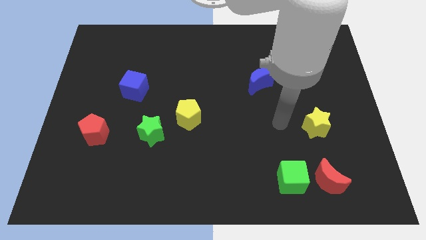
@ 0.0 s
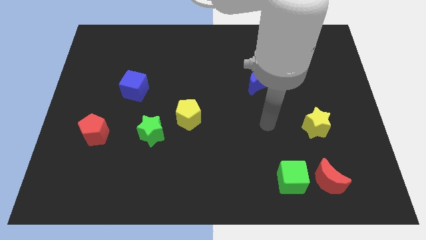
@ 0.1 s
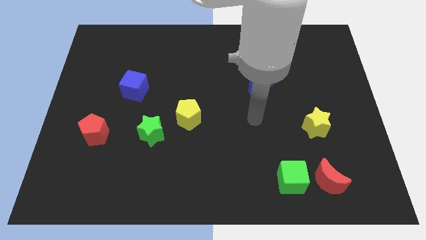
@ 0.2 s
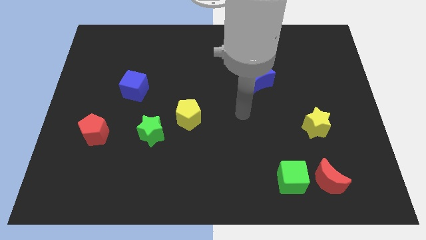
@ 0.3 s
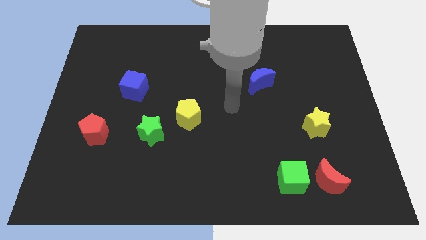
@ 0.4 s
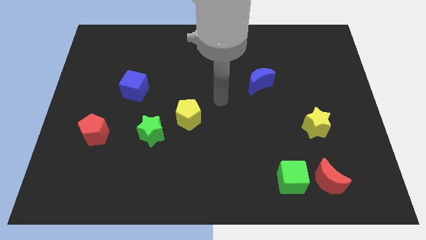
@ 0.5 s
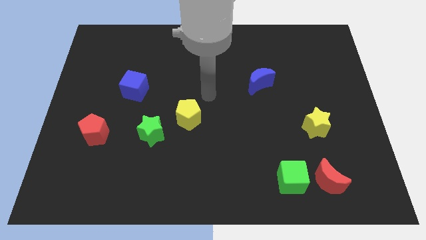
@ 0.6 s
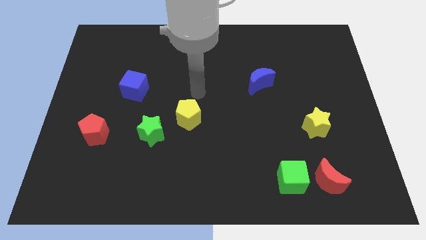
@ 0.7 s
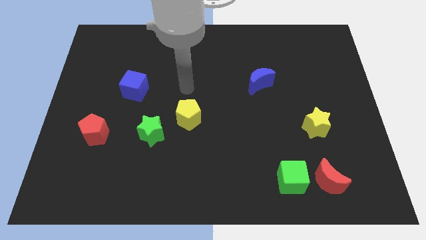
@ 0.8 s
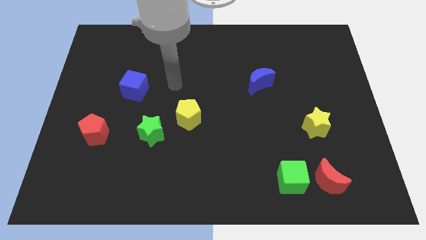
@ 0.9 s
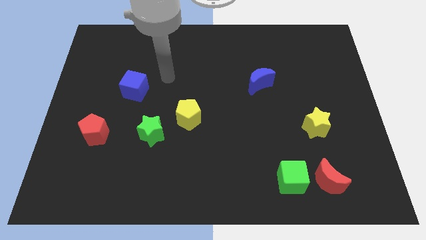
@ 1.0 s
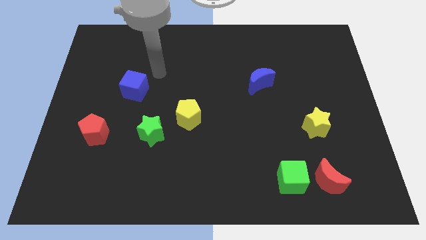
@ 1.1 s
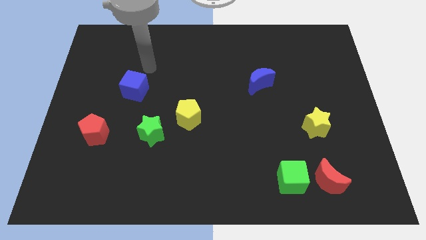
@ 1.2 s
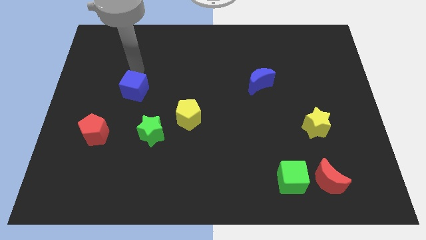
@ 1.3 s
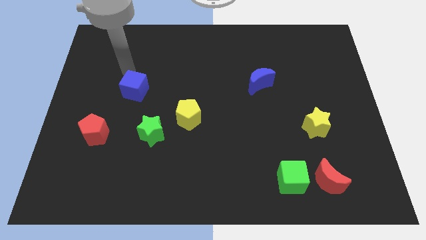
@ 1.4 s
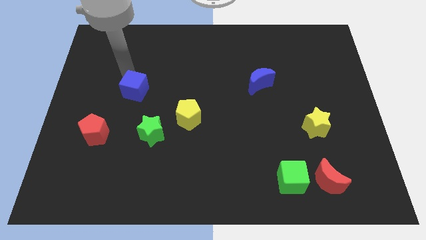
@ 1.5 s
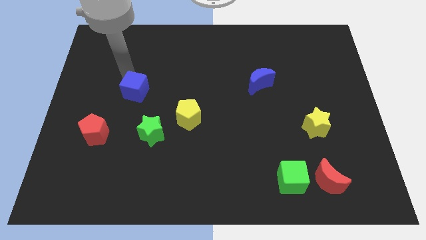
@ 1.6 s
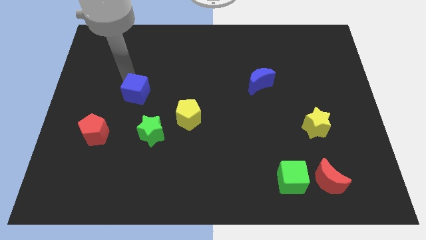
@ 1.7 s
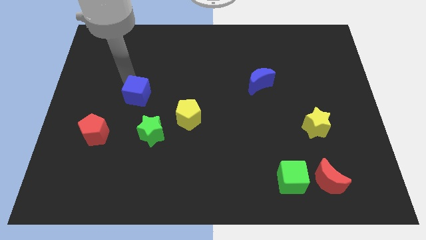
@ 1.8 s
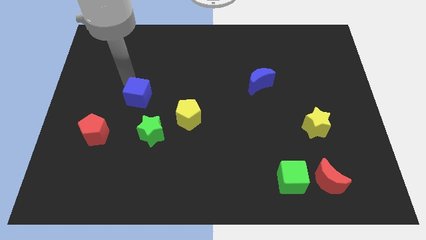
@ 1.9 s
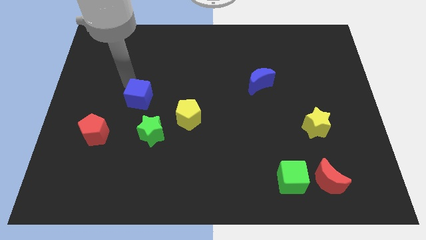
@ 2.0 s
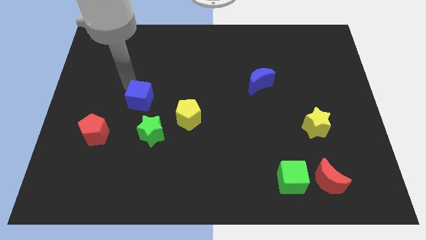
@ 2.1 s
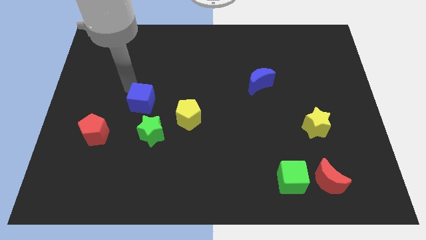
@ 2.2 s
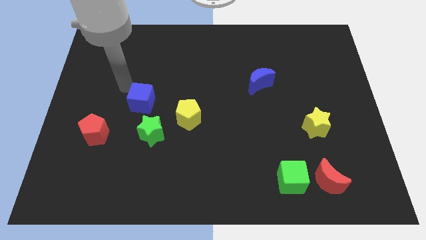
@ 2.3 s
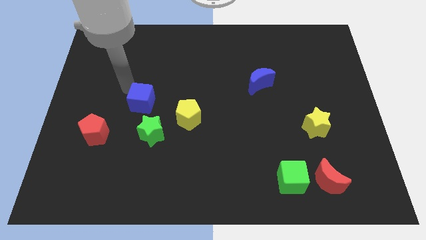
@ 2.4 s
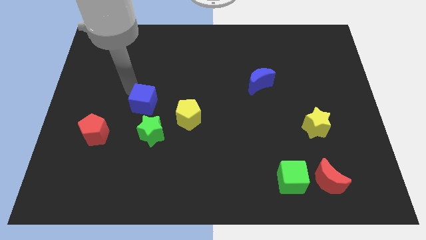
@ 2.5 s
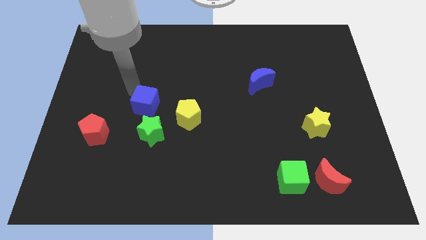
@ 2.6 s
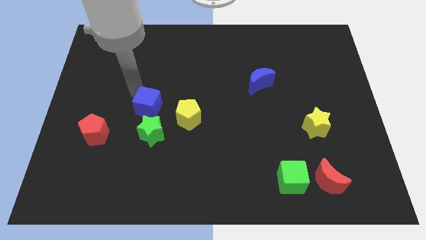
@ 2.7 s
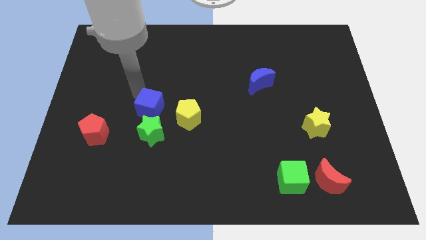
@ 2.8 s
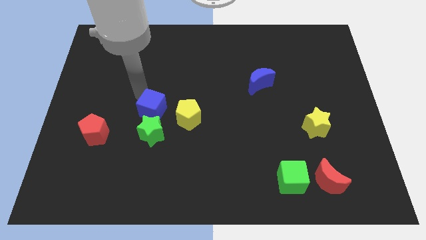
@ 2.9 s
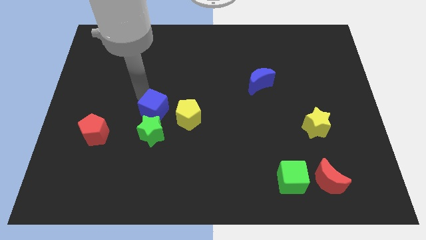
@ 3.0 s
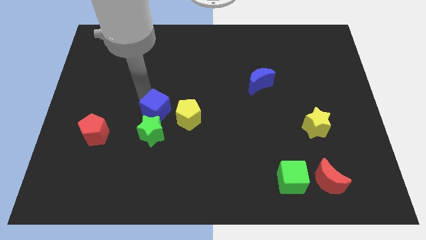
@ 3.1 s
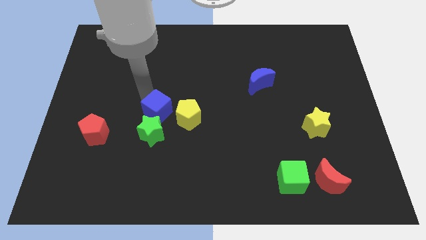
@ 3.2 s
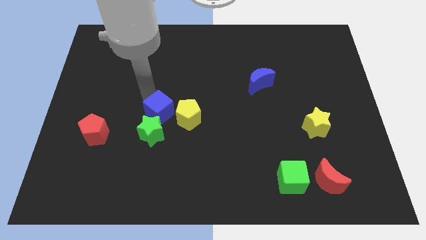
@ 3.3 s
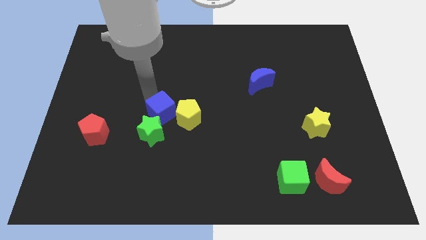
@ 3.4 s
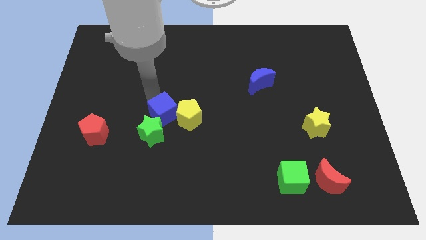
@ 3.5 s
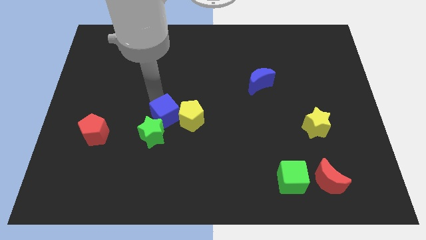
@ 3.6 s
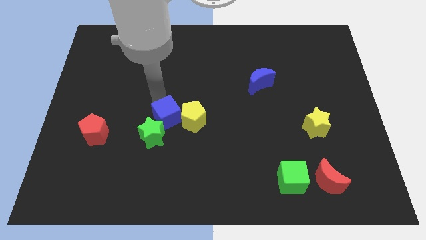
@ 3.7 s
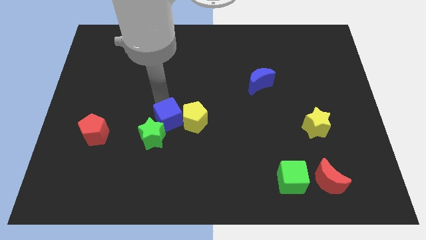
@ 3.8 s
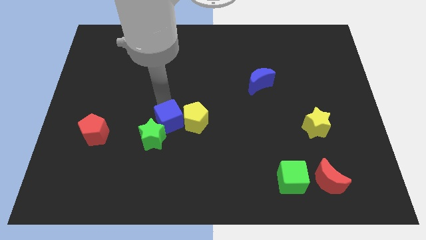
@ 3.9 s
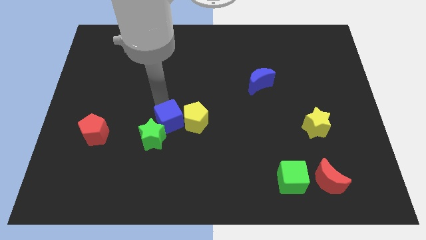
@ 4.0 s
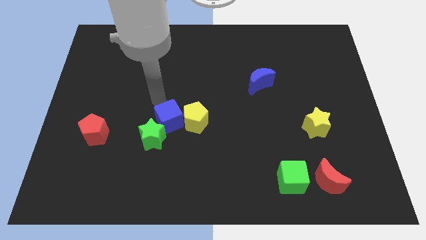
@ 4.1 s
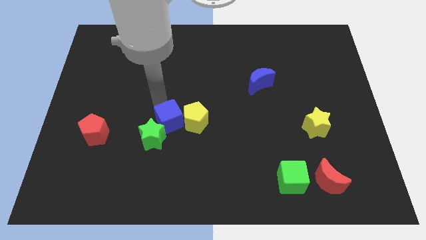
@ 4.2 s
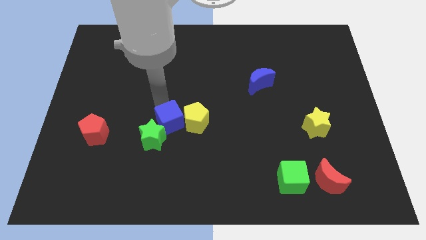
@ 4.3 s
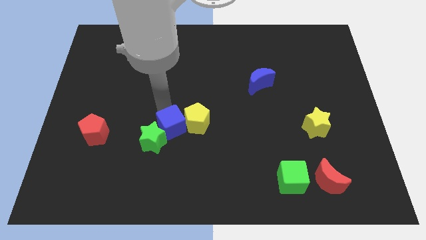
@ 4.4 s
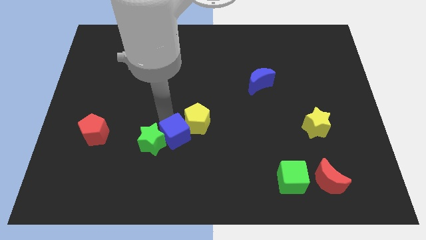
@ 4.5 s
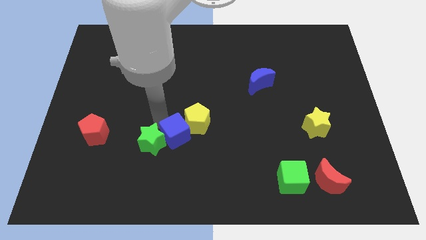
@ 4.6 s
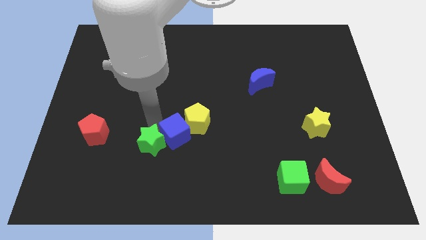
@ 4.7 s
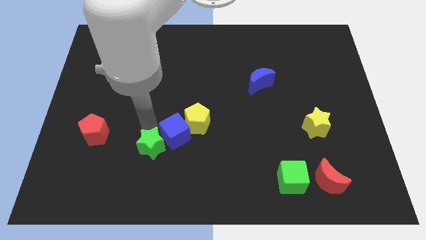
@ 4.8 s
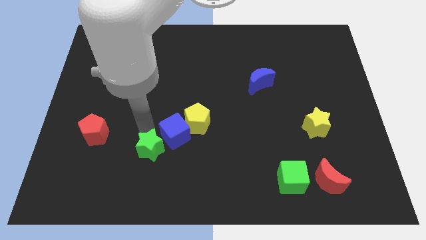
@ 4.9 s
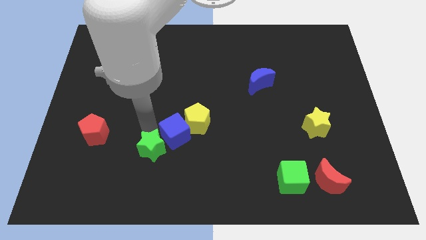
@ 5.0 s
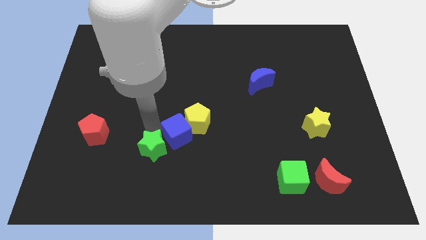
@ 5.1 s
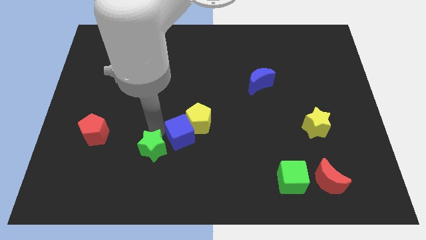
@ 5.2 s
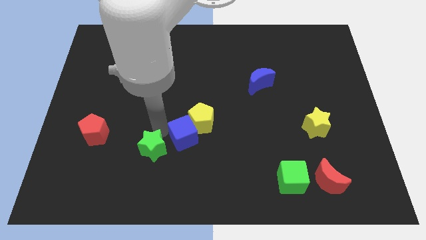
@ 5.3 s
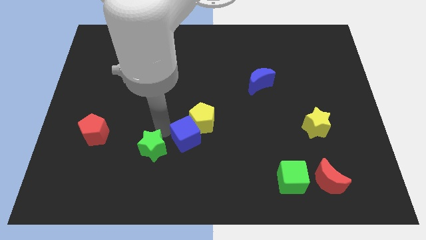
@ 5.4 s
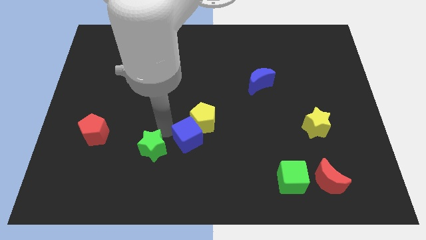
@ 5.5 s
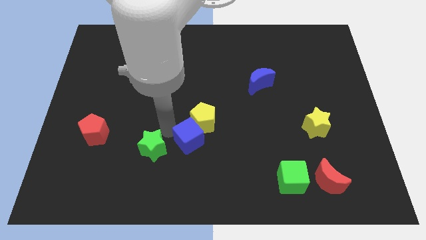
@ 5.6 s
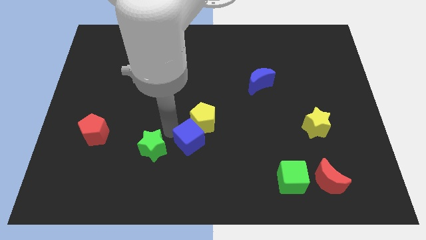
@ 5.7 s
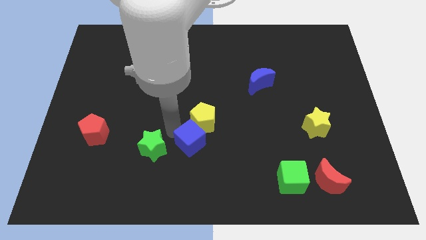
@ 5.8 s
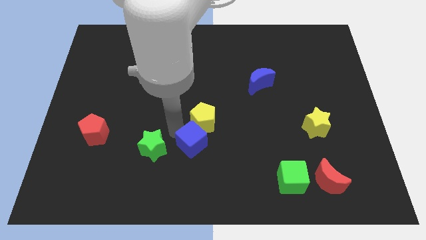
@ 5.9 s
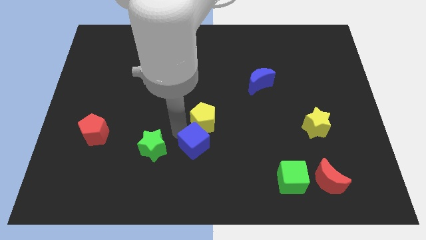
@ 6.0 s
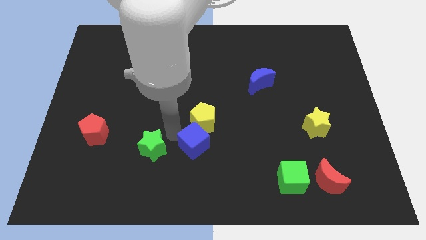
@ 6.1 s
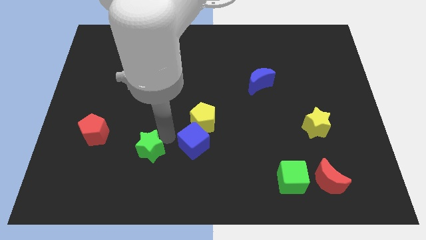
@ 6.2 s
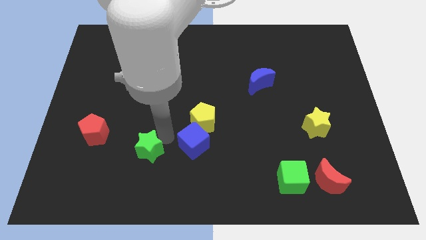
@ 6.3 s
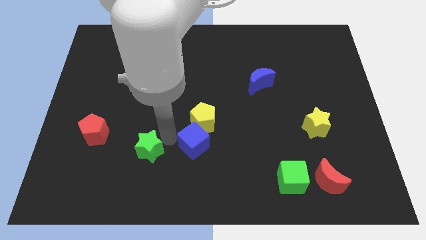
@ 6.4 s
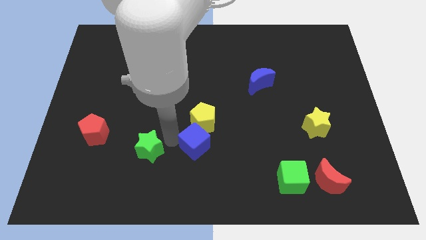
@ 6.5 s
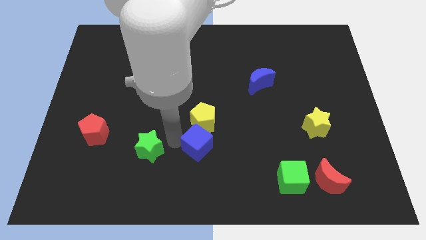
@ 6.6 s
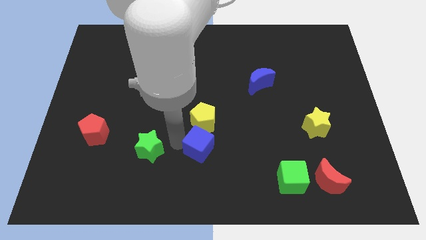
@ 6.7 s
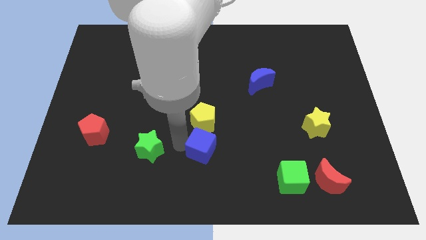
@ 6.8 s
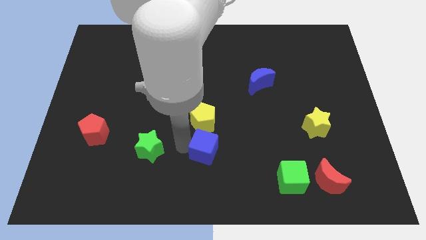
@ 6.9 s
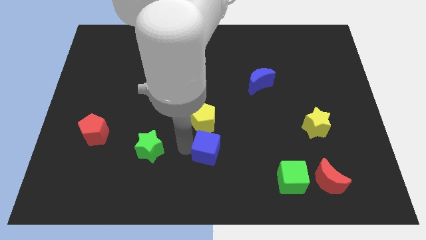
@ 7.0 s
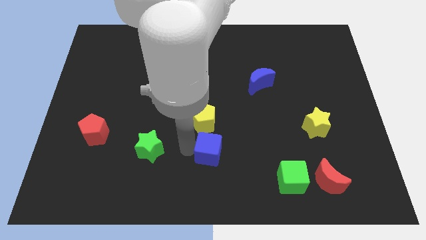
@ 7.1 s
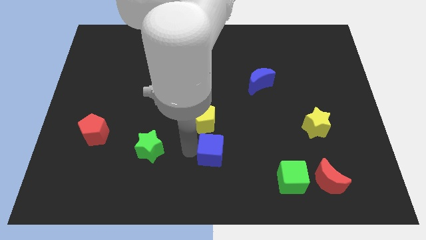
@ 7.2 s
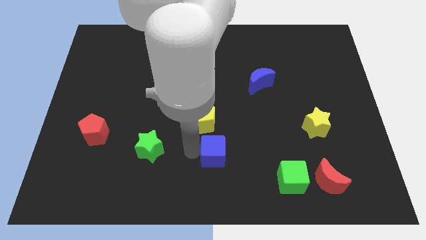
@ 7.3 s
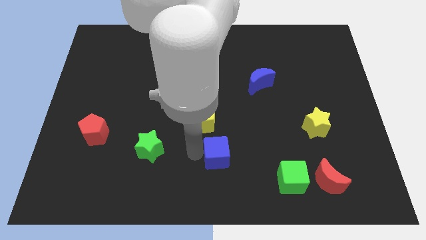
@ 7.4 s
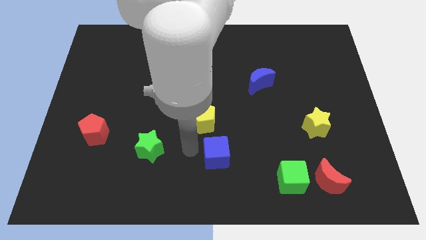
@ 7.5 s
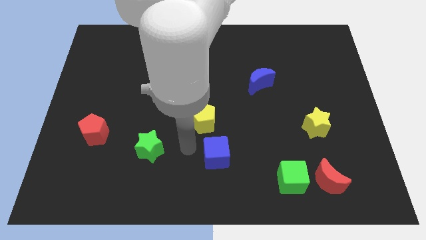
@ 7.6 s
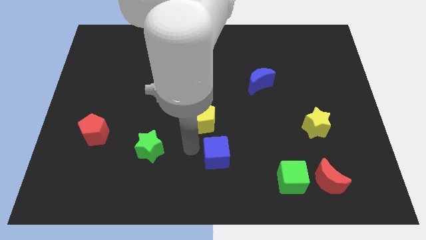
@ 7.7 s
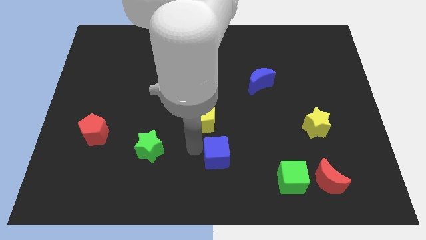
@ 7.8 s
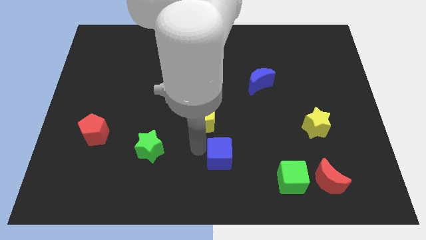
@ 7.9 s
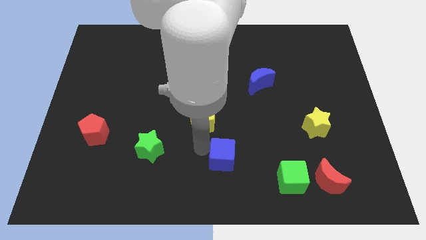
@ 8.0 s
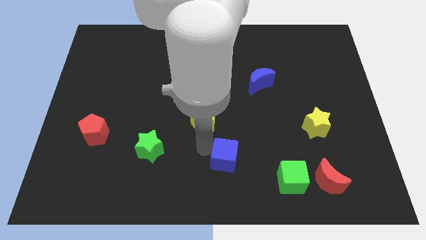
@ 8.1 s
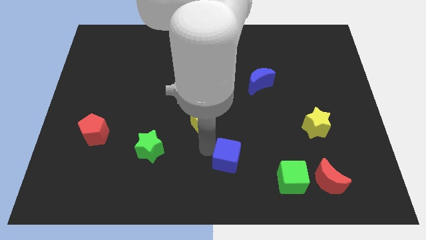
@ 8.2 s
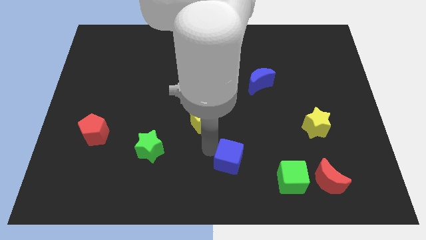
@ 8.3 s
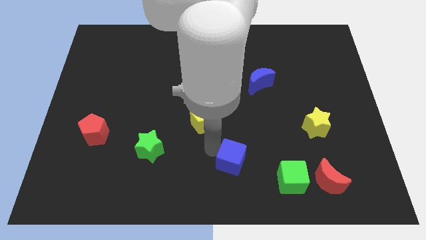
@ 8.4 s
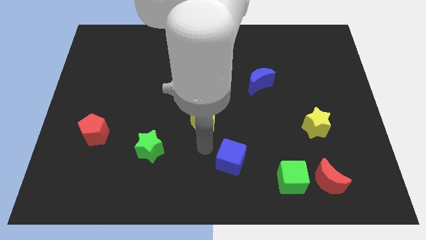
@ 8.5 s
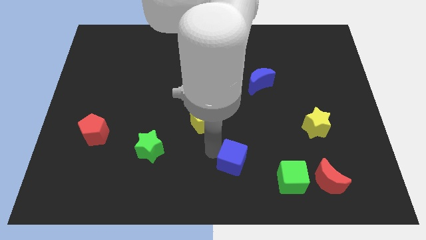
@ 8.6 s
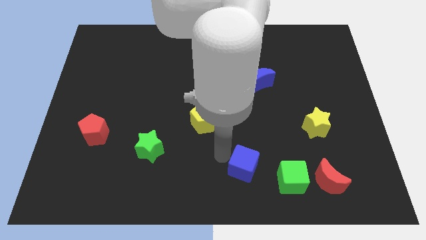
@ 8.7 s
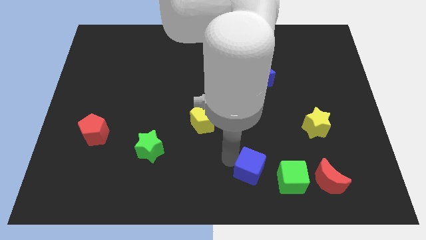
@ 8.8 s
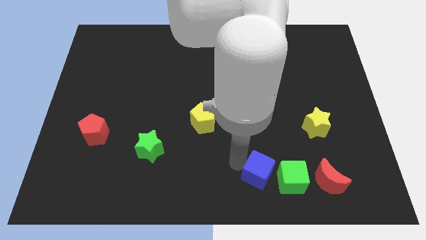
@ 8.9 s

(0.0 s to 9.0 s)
move the blue cube just left of the red moon
